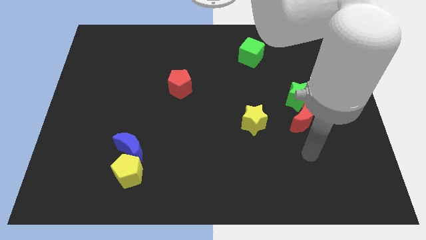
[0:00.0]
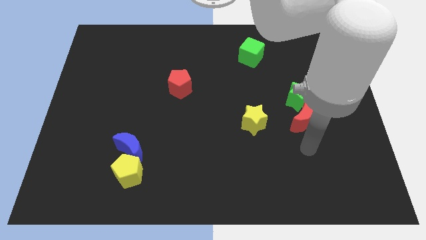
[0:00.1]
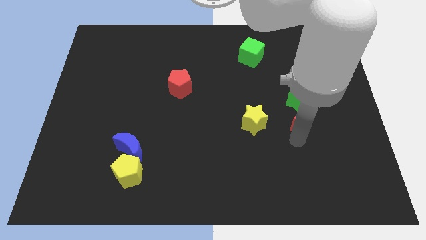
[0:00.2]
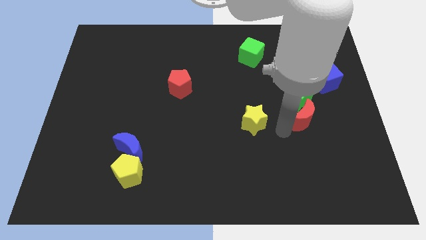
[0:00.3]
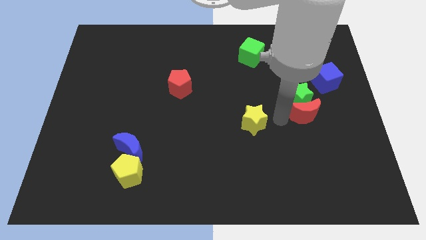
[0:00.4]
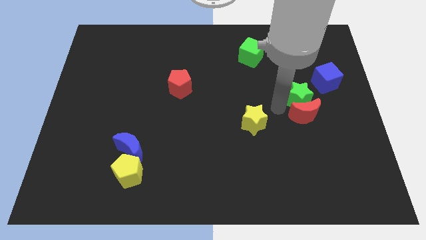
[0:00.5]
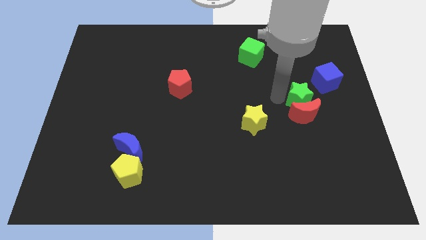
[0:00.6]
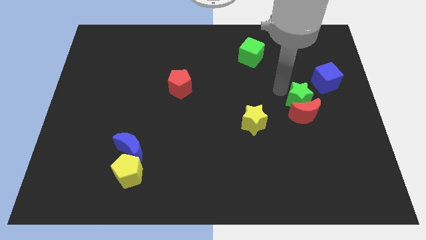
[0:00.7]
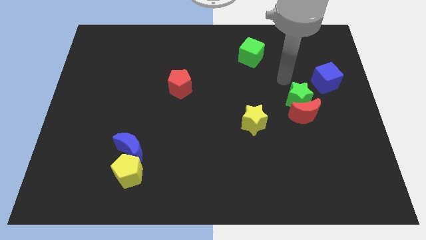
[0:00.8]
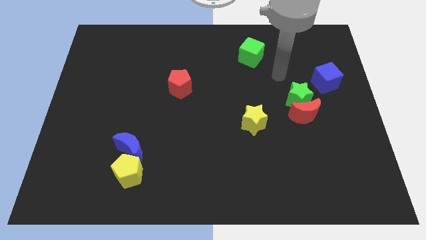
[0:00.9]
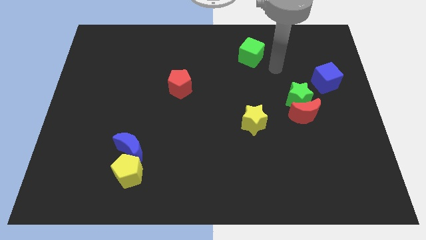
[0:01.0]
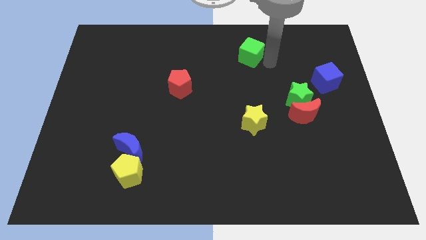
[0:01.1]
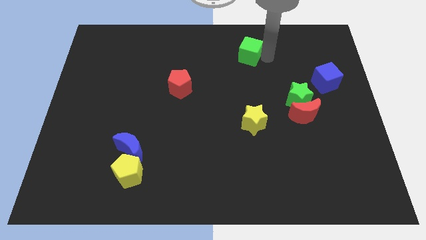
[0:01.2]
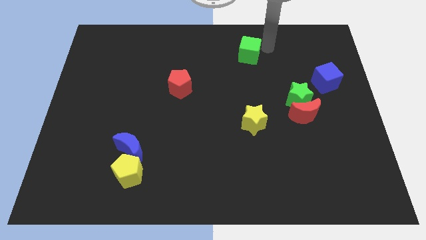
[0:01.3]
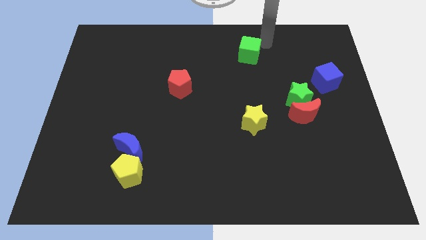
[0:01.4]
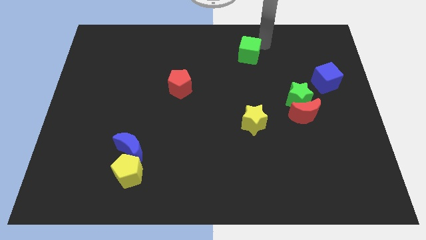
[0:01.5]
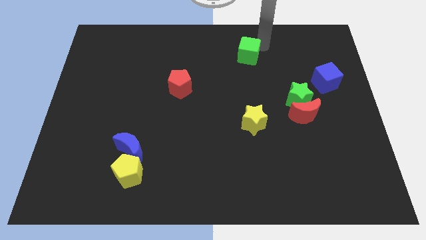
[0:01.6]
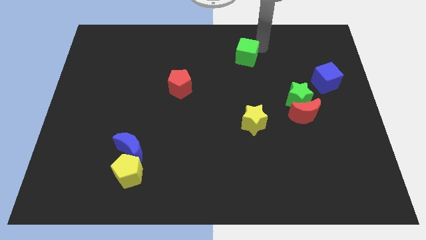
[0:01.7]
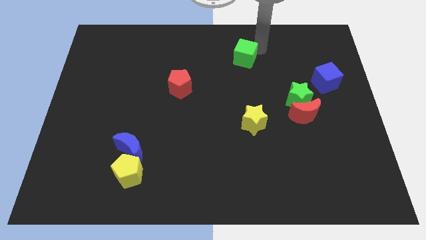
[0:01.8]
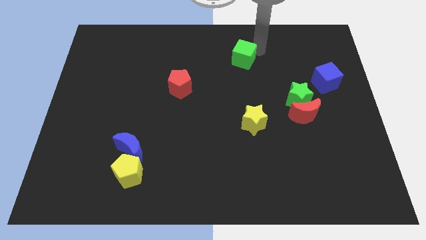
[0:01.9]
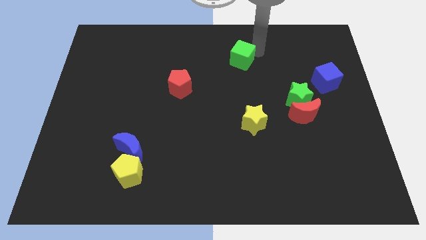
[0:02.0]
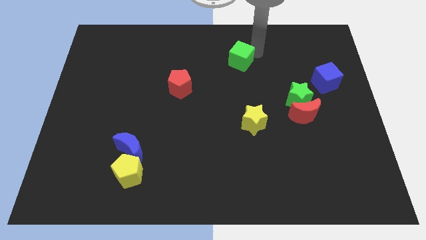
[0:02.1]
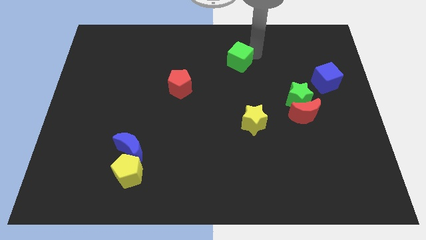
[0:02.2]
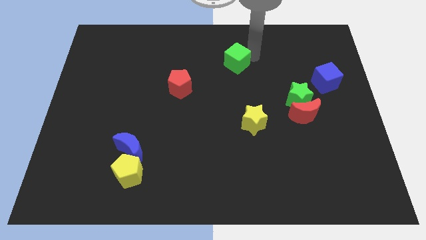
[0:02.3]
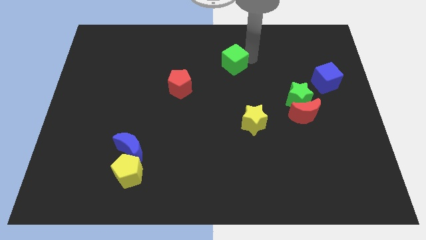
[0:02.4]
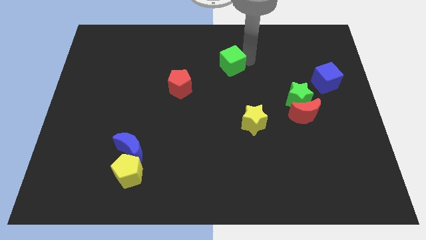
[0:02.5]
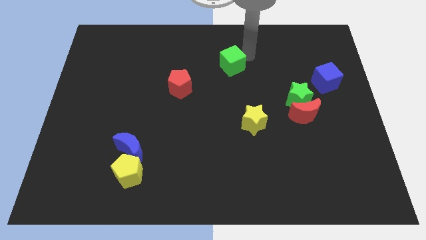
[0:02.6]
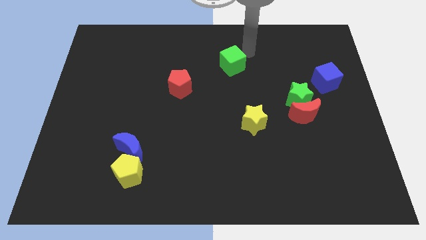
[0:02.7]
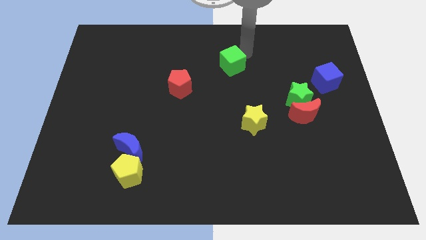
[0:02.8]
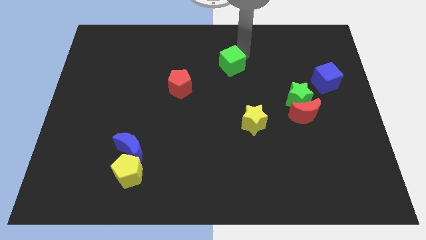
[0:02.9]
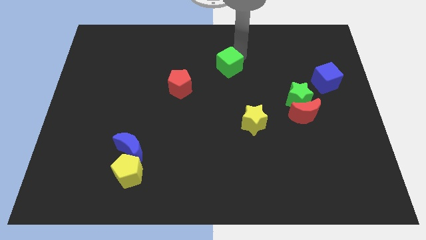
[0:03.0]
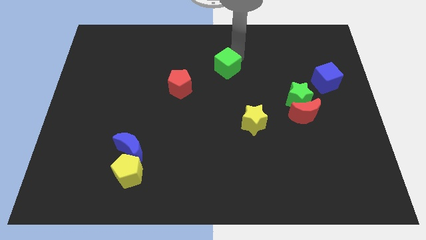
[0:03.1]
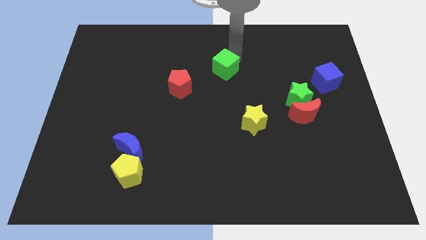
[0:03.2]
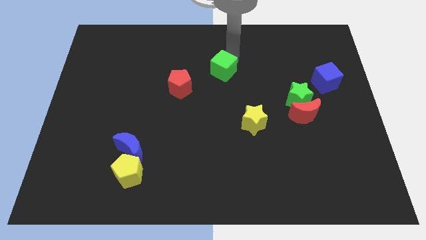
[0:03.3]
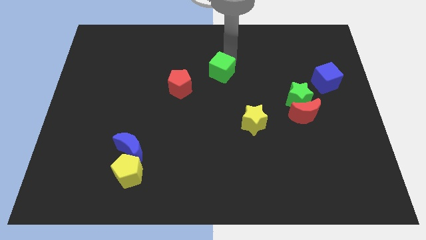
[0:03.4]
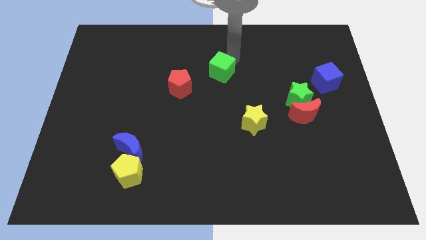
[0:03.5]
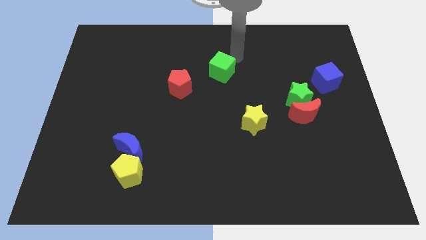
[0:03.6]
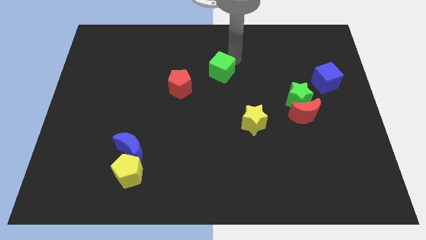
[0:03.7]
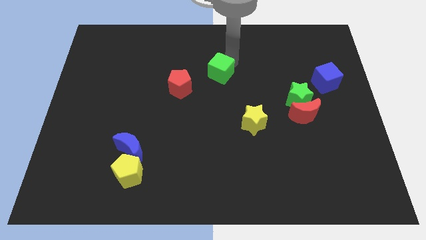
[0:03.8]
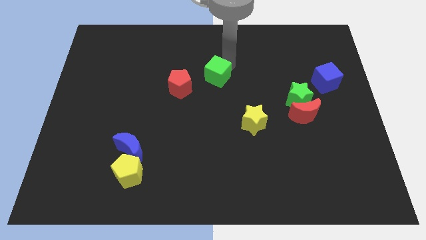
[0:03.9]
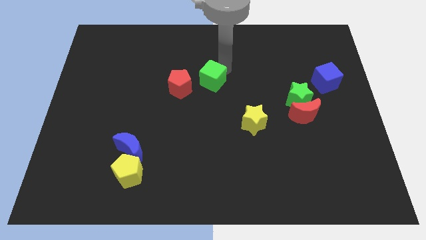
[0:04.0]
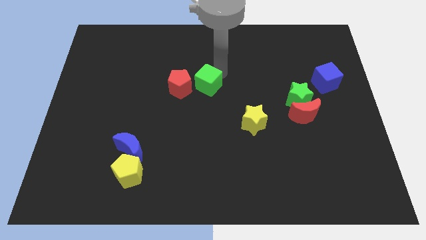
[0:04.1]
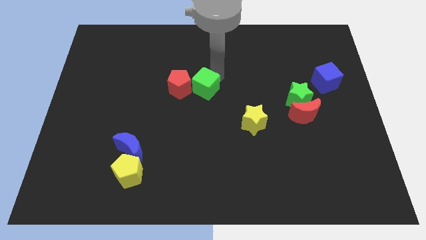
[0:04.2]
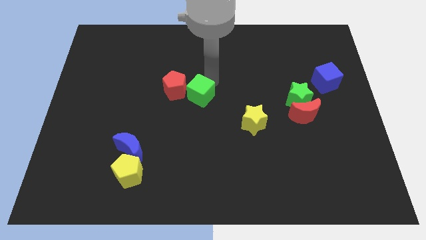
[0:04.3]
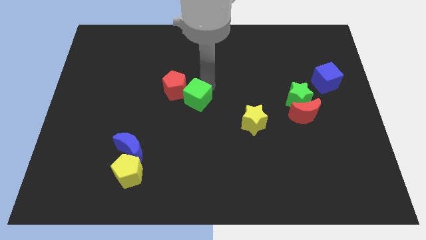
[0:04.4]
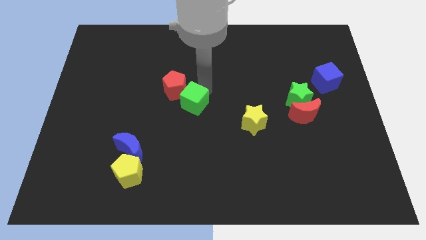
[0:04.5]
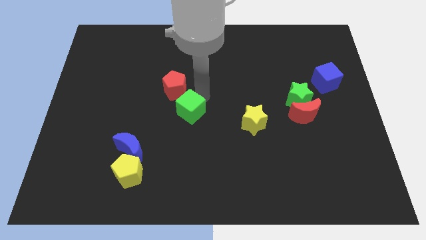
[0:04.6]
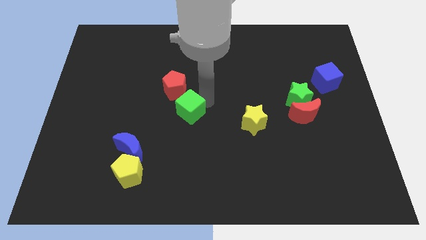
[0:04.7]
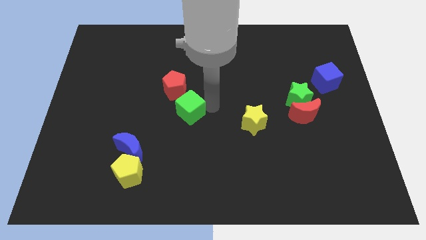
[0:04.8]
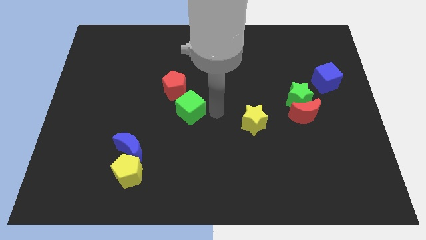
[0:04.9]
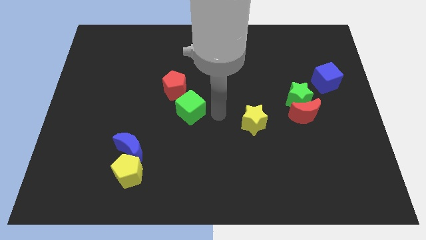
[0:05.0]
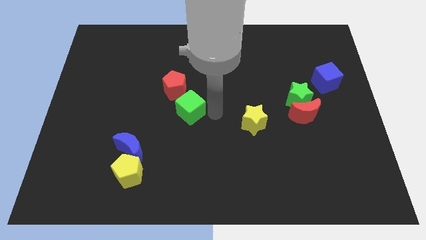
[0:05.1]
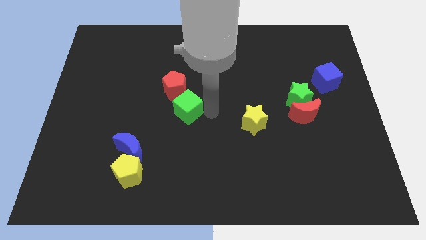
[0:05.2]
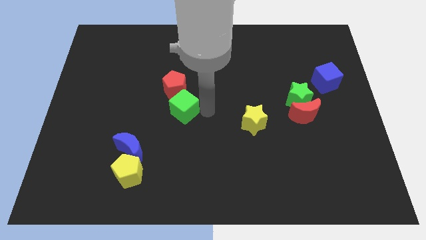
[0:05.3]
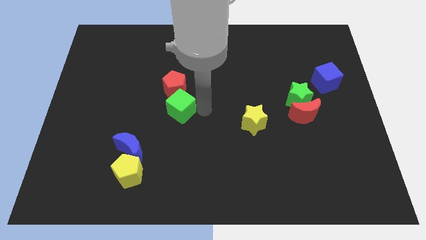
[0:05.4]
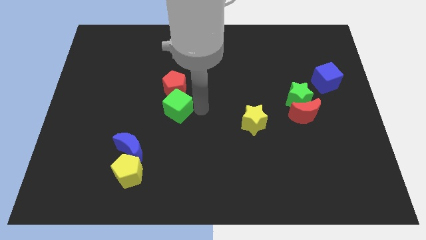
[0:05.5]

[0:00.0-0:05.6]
put the green cube diagonally down and to the left of the red pentagon

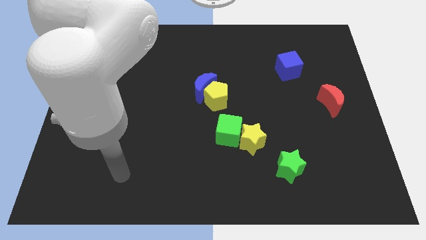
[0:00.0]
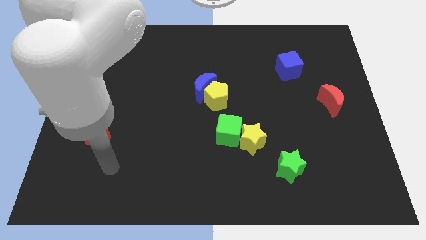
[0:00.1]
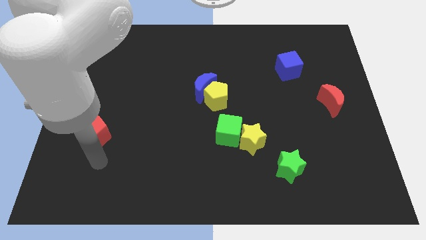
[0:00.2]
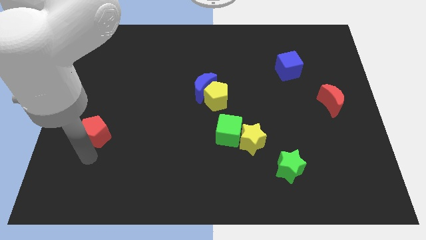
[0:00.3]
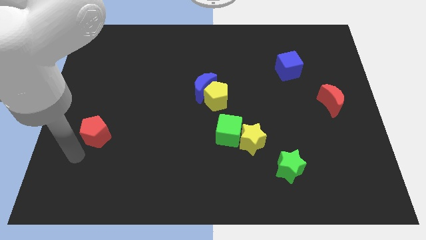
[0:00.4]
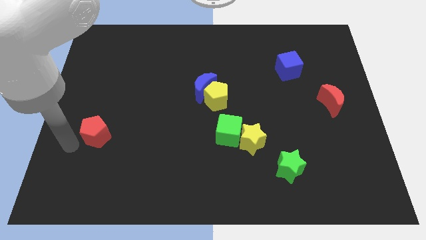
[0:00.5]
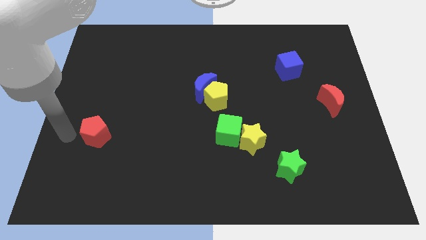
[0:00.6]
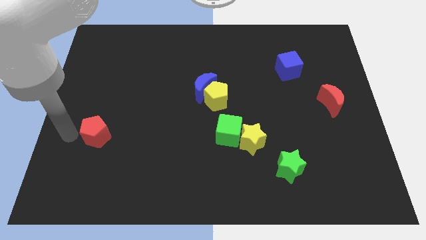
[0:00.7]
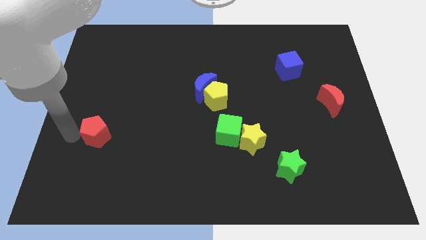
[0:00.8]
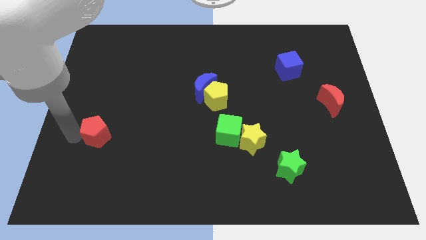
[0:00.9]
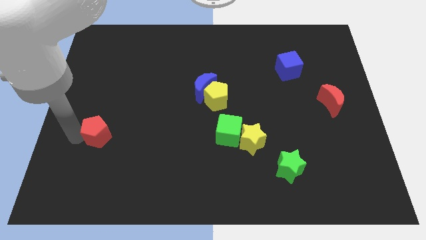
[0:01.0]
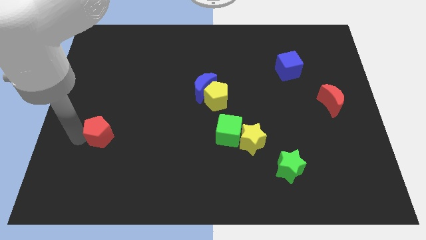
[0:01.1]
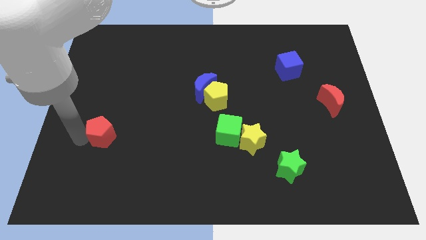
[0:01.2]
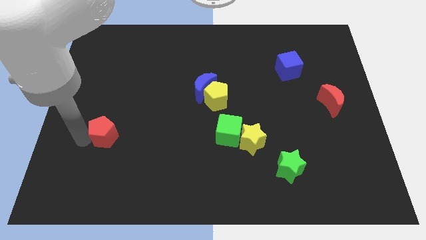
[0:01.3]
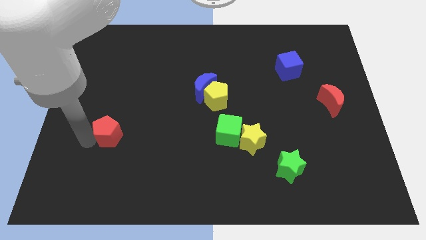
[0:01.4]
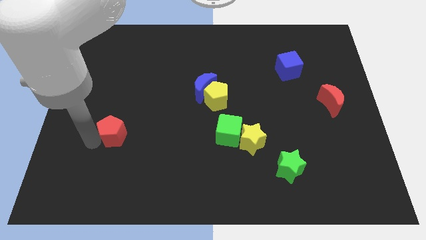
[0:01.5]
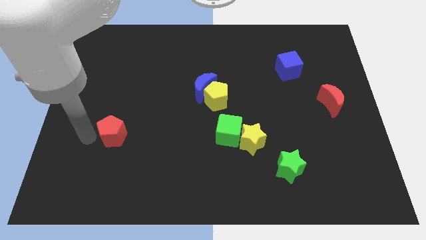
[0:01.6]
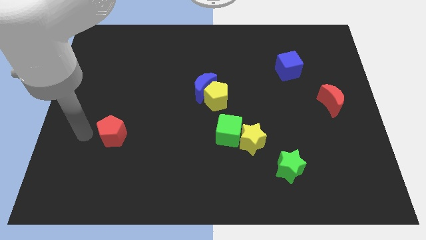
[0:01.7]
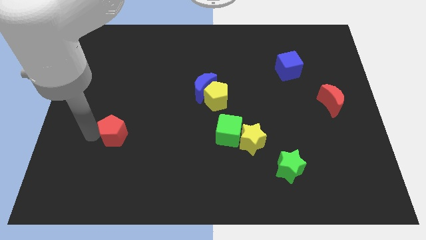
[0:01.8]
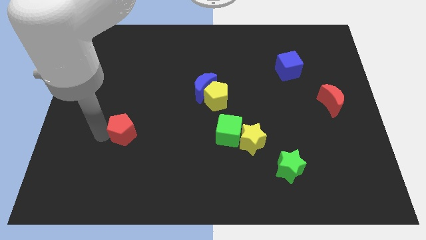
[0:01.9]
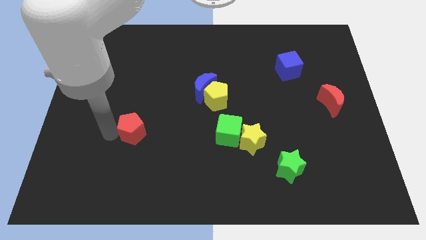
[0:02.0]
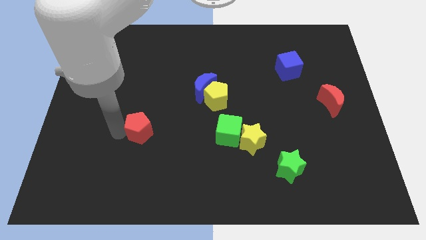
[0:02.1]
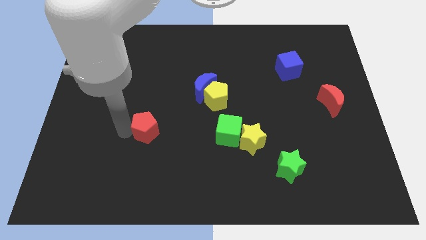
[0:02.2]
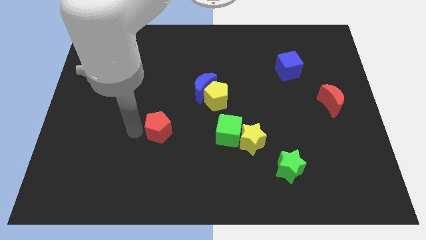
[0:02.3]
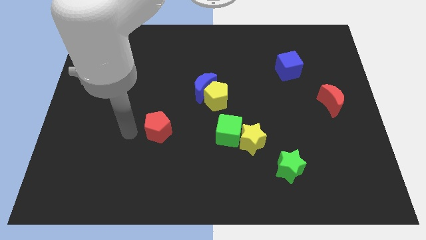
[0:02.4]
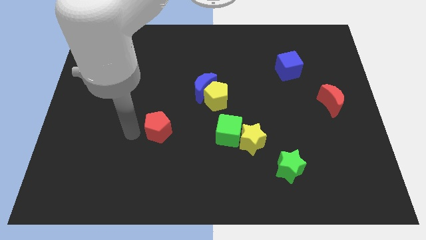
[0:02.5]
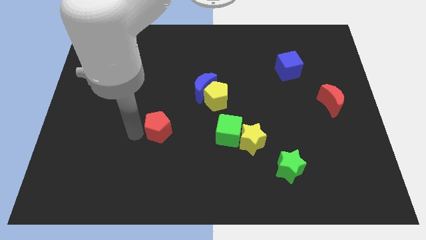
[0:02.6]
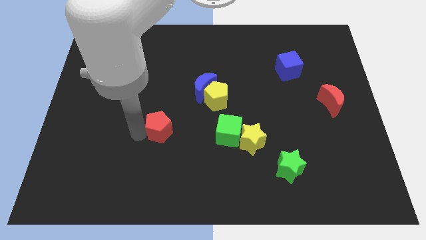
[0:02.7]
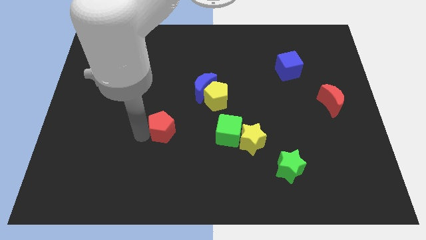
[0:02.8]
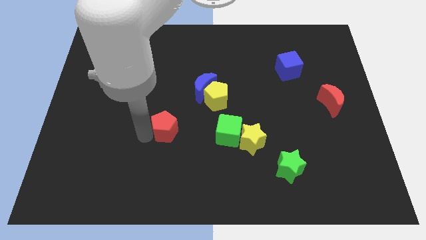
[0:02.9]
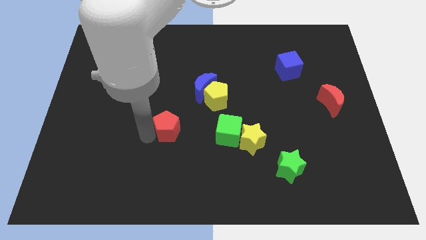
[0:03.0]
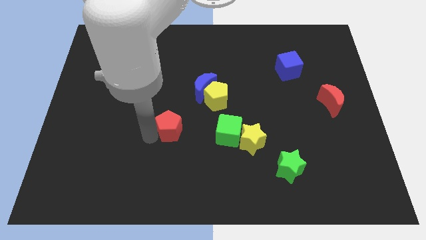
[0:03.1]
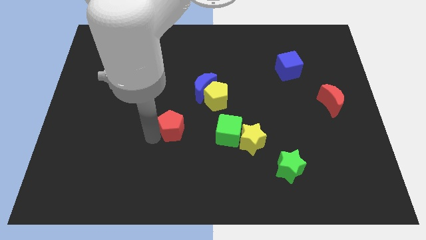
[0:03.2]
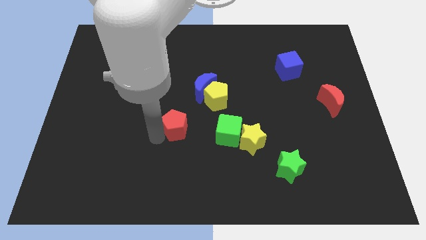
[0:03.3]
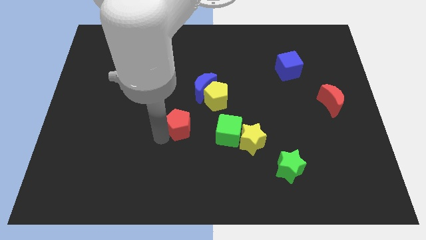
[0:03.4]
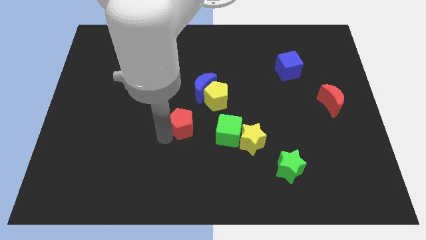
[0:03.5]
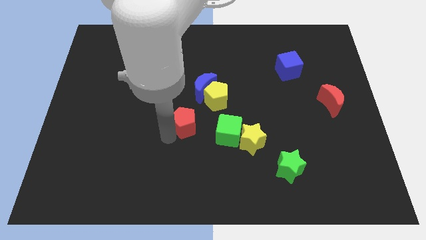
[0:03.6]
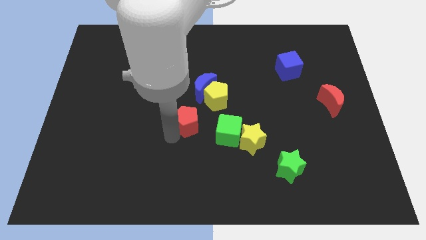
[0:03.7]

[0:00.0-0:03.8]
put the red pentagon diagonally up and to the left of the green cube
